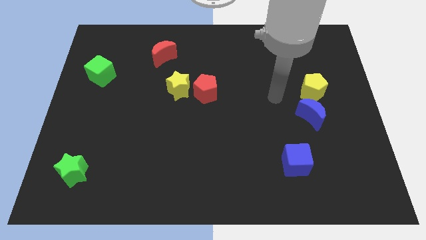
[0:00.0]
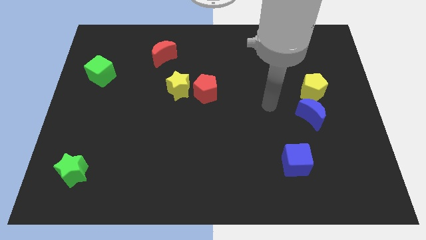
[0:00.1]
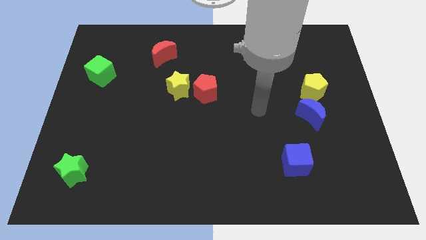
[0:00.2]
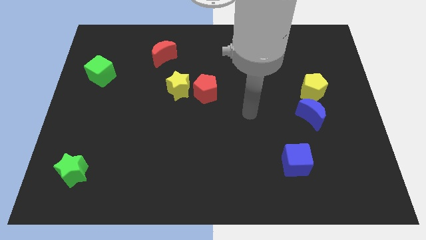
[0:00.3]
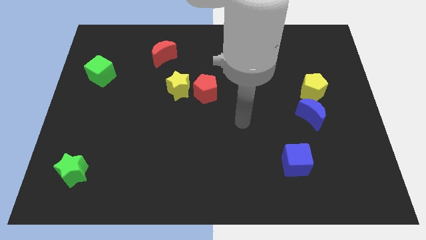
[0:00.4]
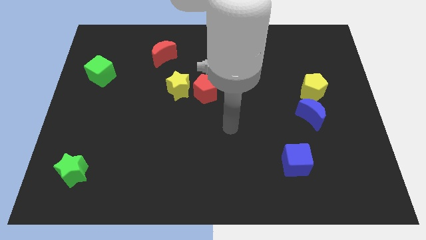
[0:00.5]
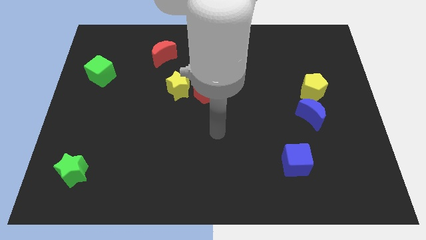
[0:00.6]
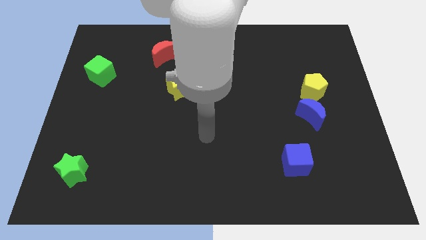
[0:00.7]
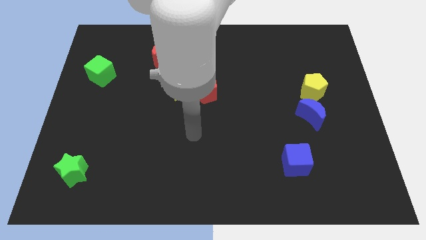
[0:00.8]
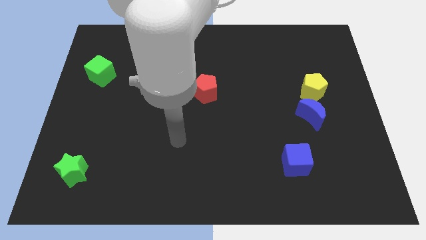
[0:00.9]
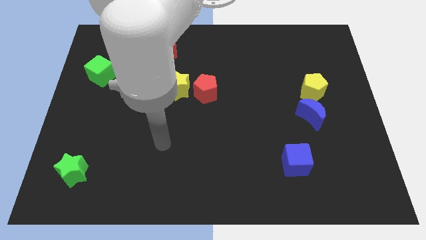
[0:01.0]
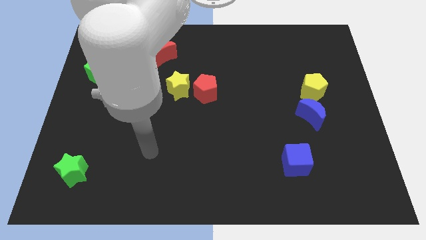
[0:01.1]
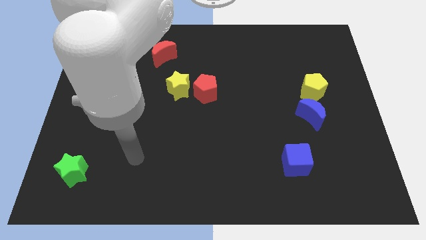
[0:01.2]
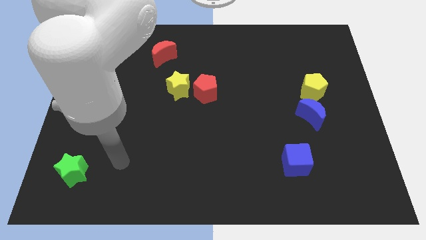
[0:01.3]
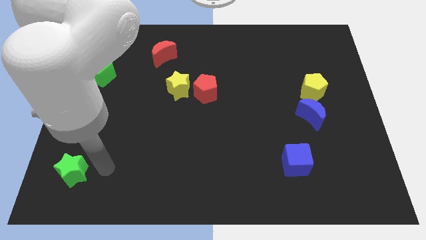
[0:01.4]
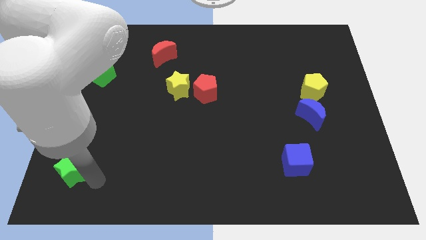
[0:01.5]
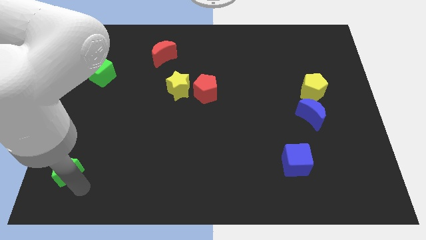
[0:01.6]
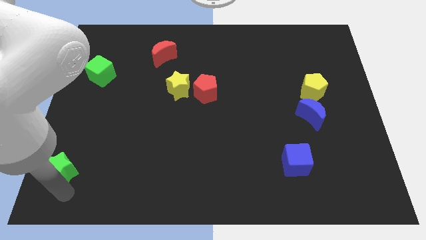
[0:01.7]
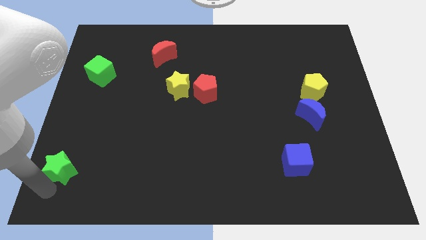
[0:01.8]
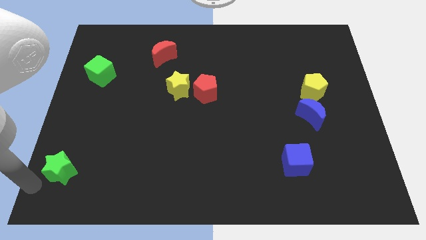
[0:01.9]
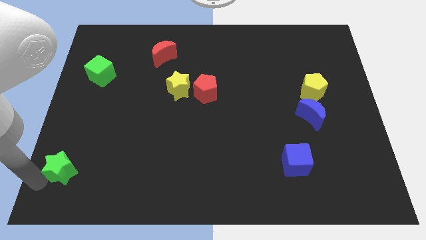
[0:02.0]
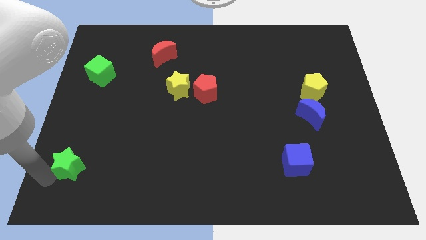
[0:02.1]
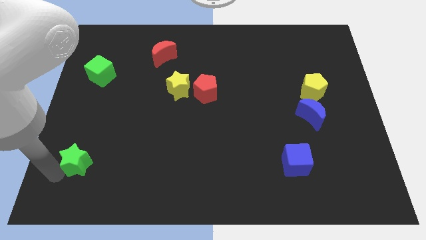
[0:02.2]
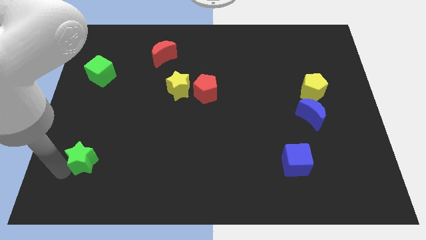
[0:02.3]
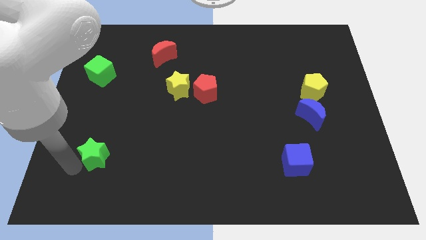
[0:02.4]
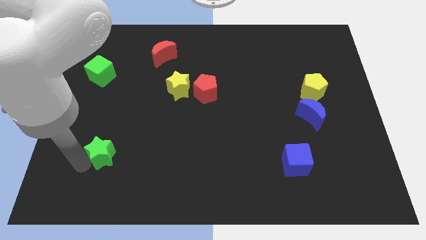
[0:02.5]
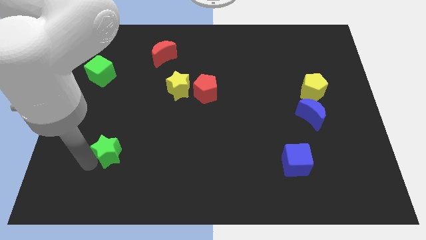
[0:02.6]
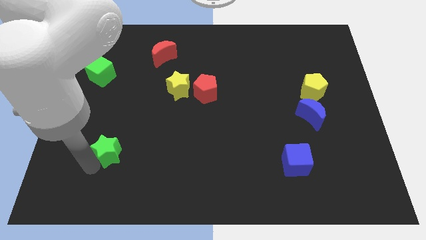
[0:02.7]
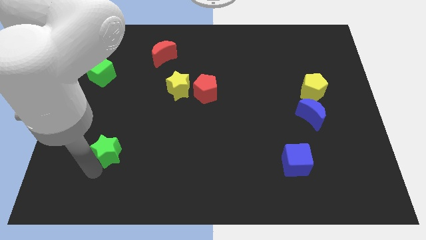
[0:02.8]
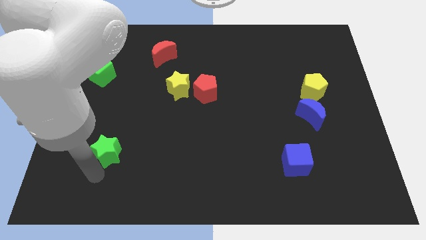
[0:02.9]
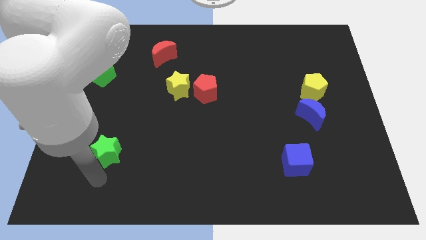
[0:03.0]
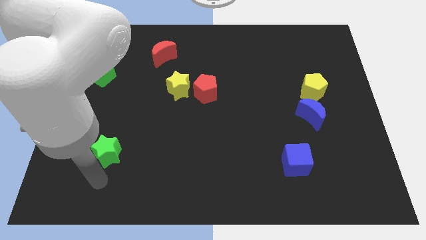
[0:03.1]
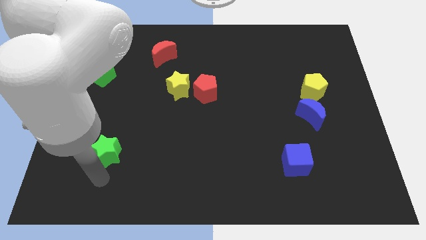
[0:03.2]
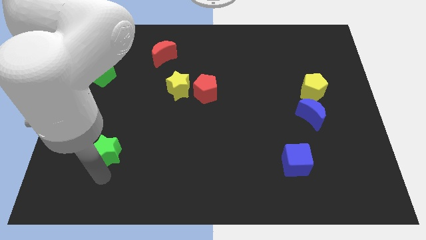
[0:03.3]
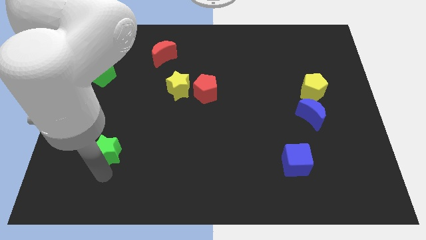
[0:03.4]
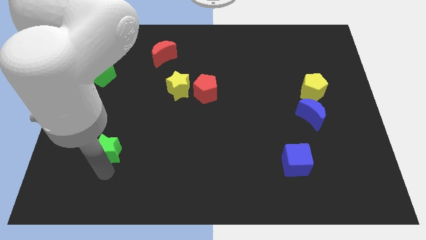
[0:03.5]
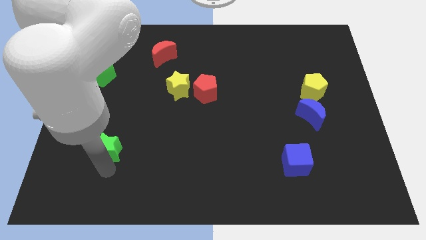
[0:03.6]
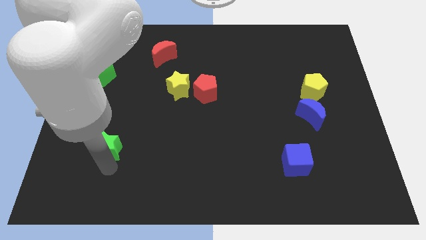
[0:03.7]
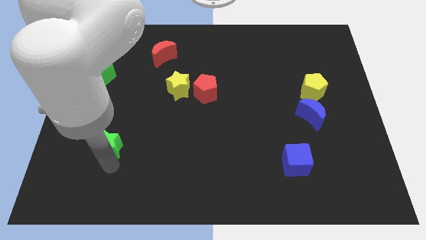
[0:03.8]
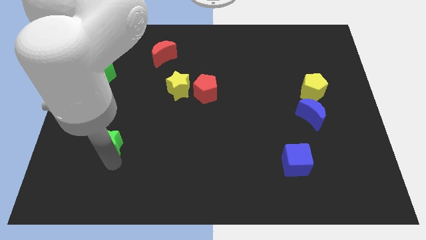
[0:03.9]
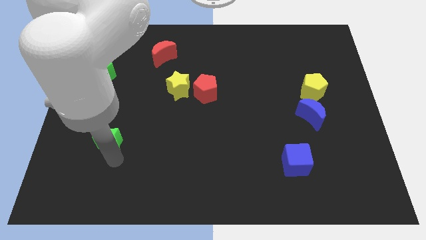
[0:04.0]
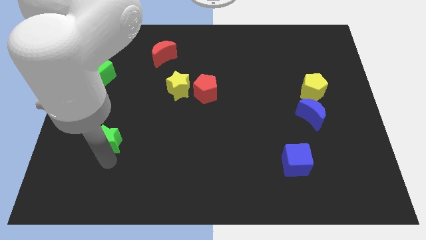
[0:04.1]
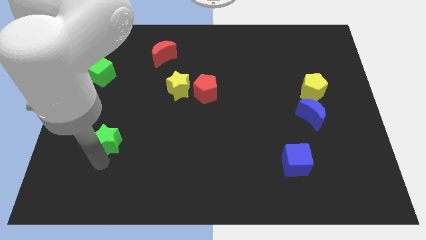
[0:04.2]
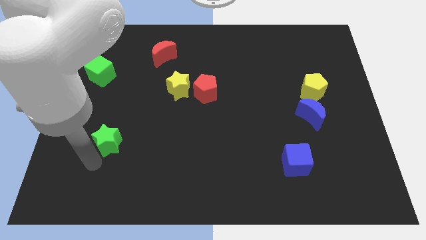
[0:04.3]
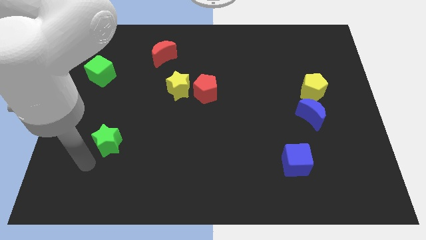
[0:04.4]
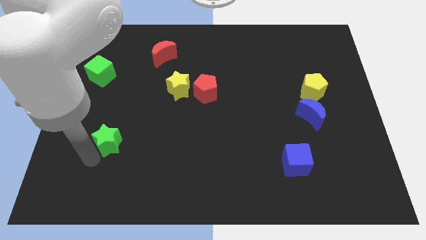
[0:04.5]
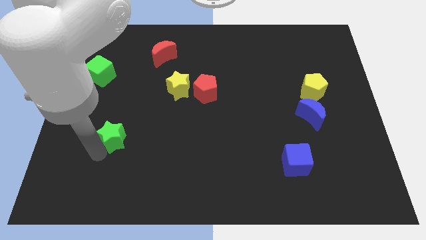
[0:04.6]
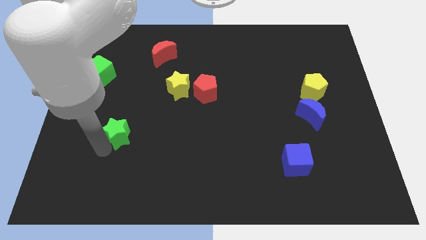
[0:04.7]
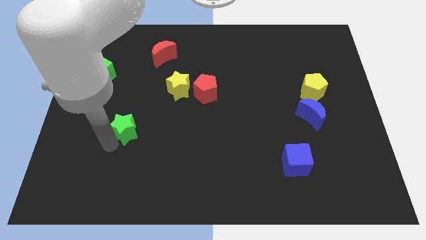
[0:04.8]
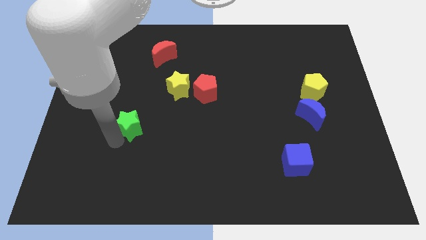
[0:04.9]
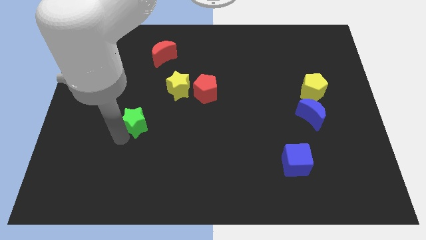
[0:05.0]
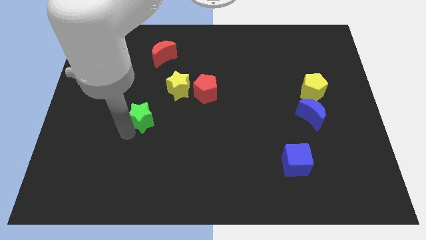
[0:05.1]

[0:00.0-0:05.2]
put the green star diagonally down and to the left of the yellow star

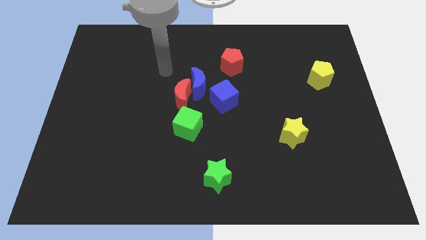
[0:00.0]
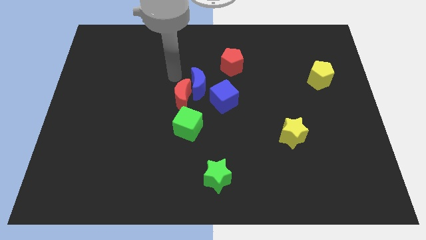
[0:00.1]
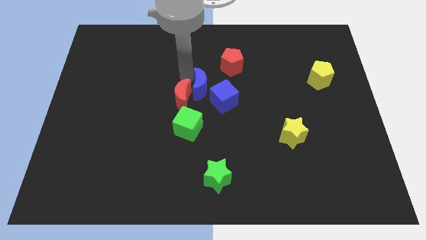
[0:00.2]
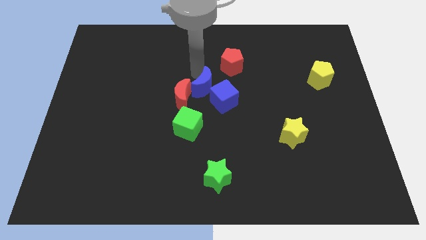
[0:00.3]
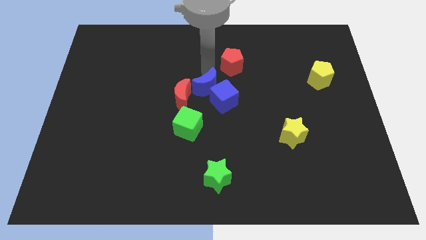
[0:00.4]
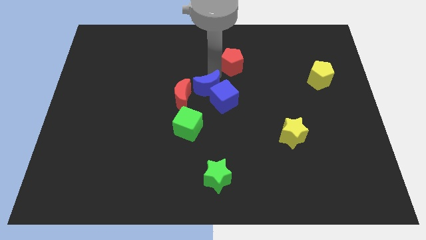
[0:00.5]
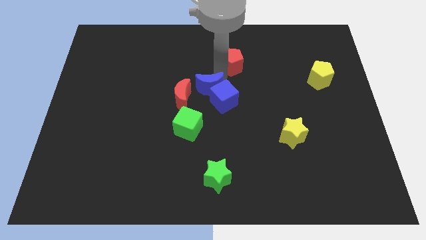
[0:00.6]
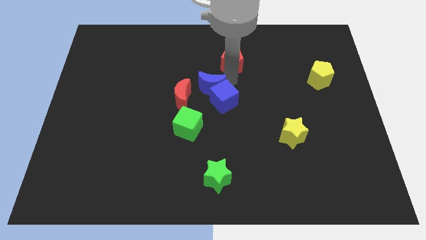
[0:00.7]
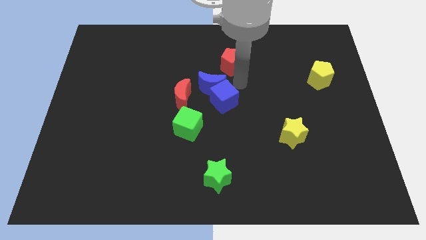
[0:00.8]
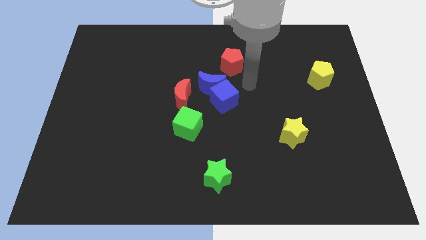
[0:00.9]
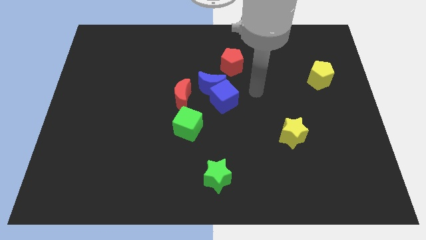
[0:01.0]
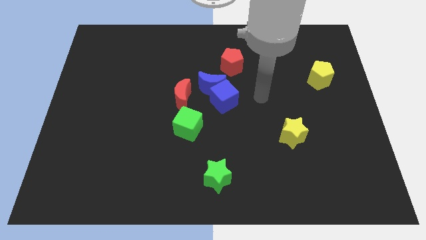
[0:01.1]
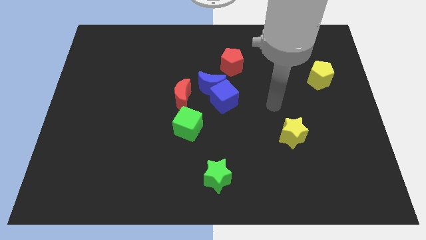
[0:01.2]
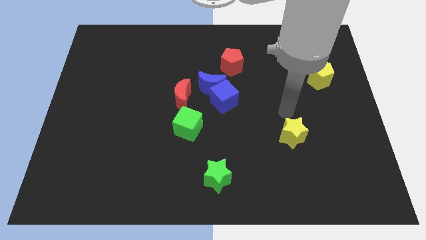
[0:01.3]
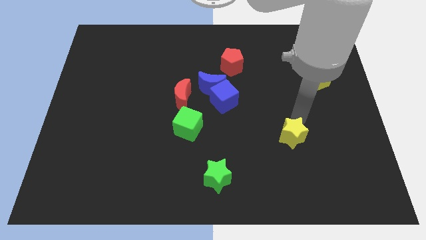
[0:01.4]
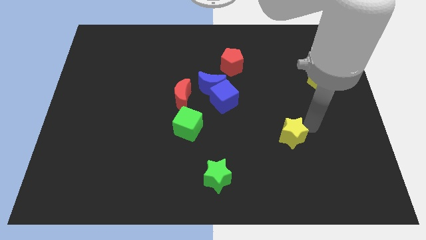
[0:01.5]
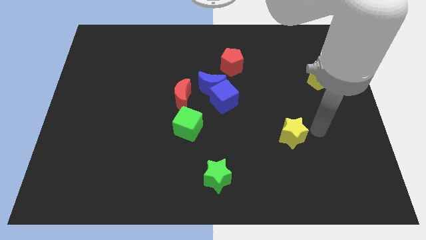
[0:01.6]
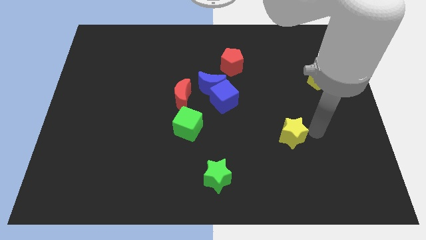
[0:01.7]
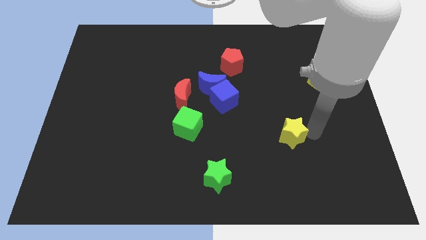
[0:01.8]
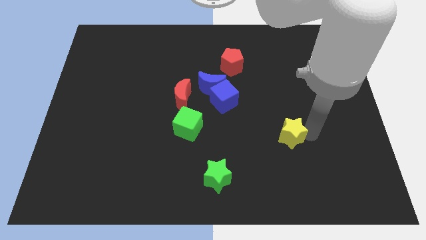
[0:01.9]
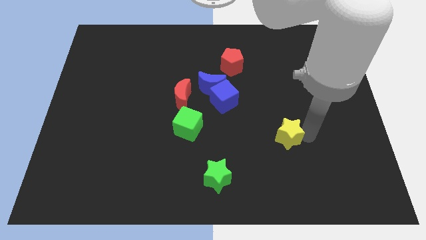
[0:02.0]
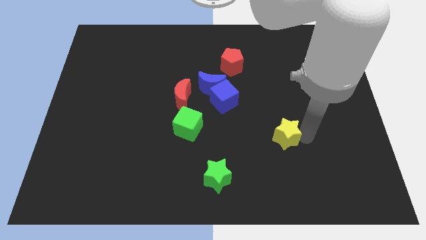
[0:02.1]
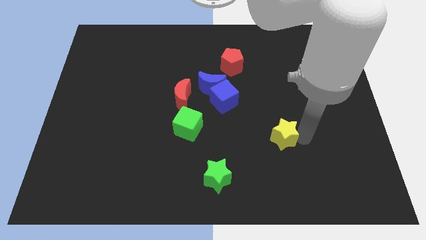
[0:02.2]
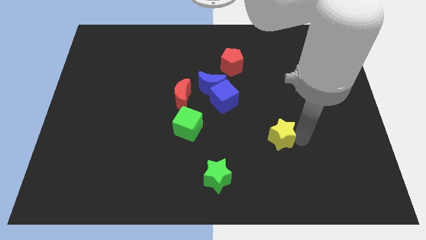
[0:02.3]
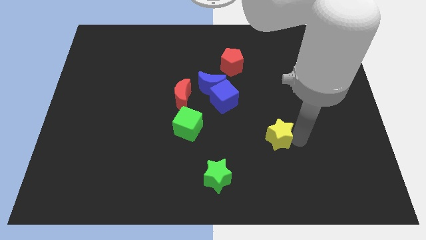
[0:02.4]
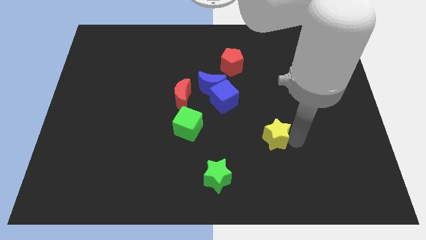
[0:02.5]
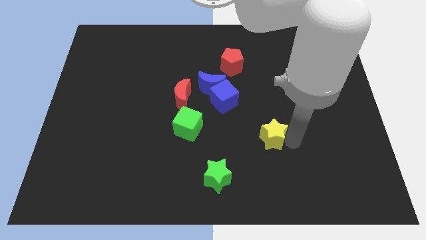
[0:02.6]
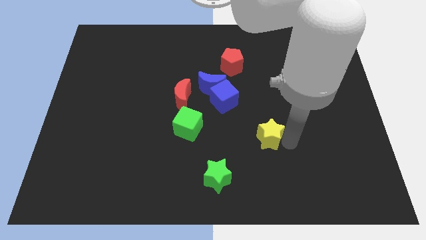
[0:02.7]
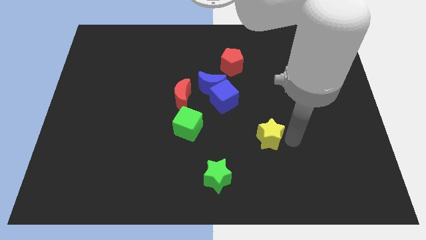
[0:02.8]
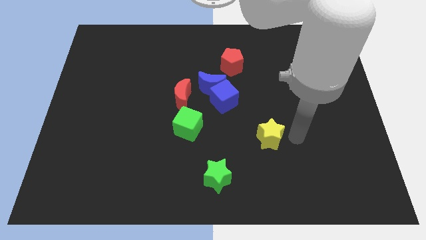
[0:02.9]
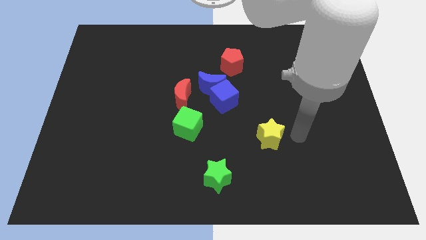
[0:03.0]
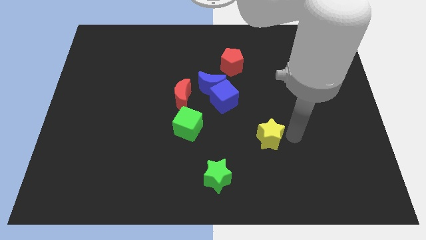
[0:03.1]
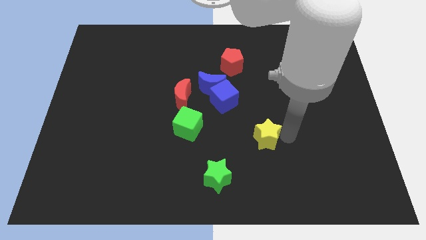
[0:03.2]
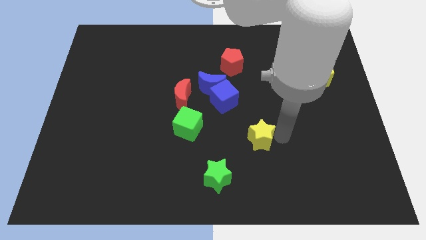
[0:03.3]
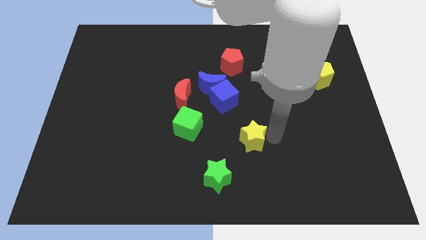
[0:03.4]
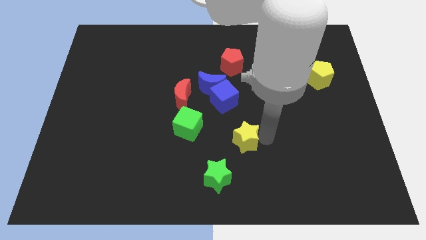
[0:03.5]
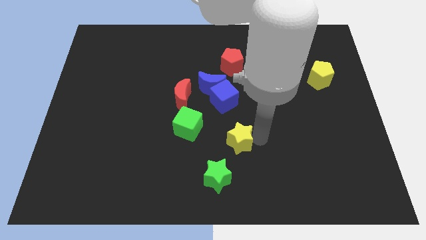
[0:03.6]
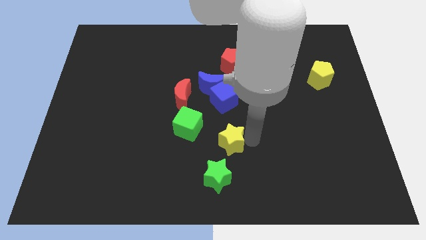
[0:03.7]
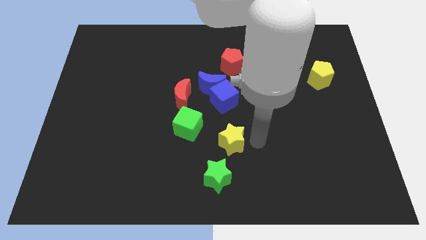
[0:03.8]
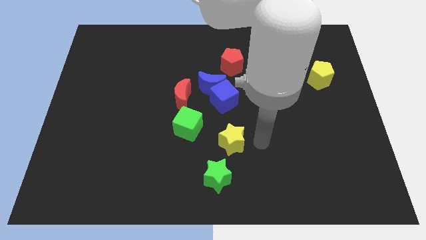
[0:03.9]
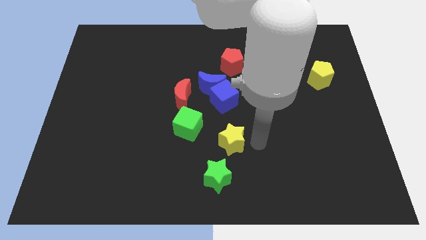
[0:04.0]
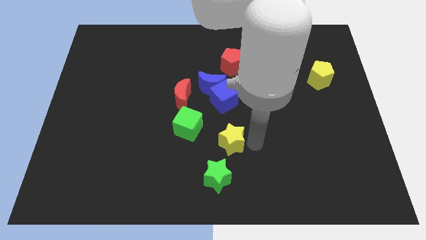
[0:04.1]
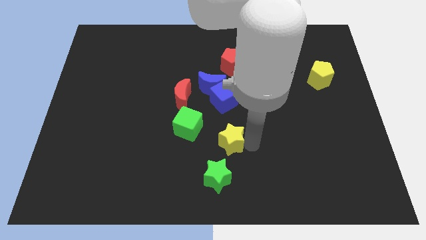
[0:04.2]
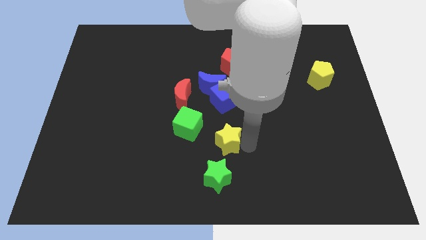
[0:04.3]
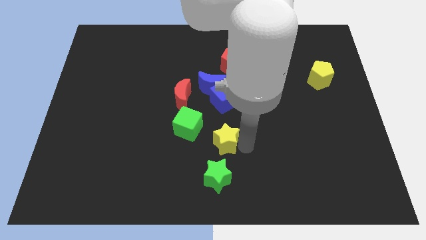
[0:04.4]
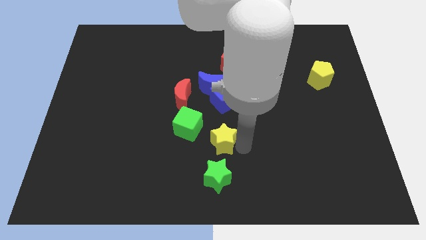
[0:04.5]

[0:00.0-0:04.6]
move the yellow star below the blue moon
